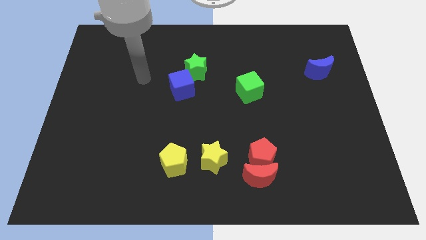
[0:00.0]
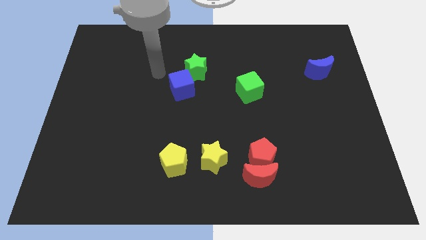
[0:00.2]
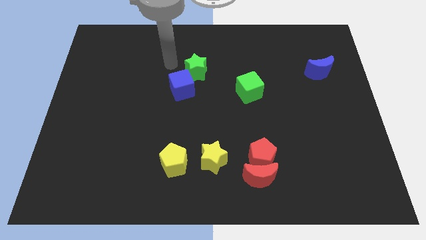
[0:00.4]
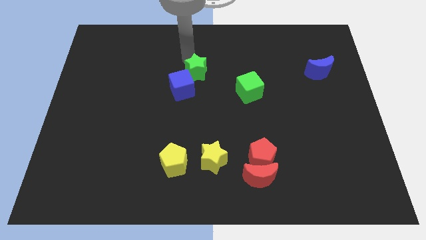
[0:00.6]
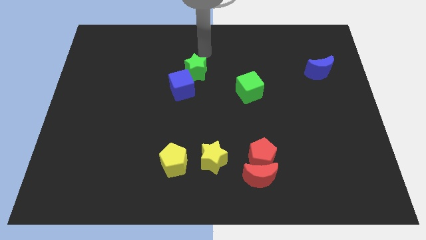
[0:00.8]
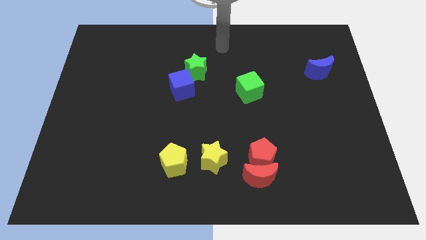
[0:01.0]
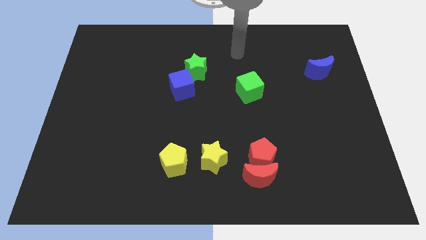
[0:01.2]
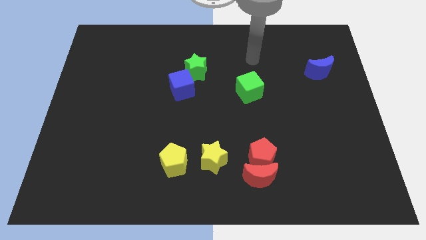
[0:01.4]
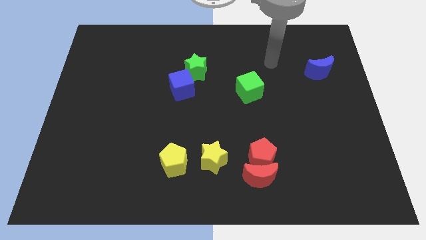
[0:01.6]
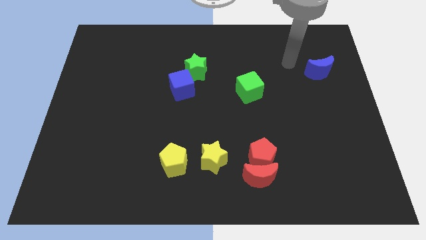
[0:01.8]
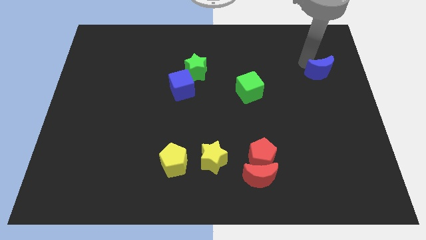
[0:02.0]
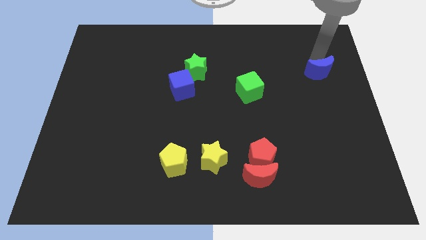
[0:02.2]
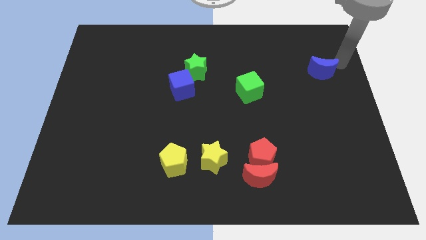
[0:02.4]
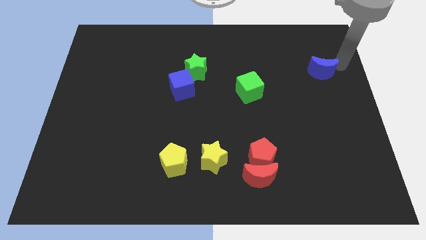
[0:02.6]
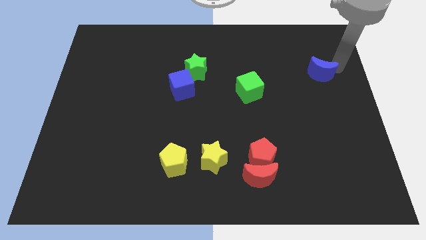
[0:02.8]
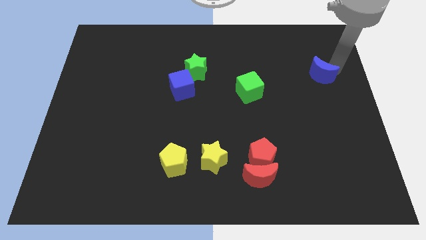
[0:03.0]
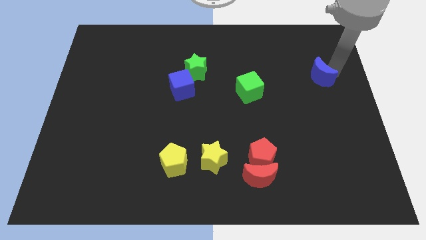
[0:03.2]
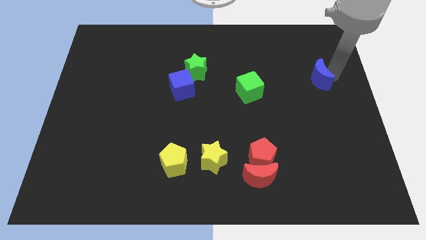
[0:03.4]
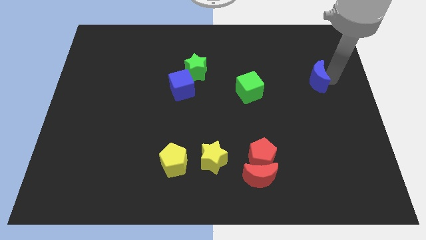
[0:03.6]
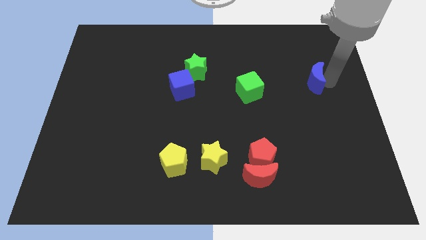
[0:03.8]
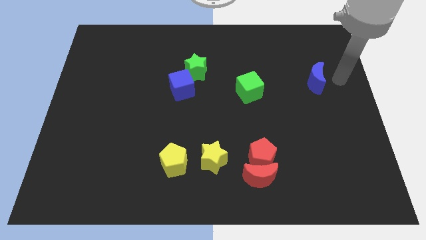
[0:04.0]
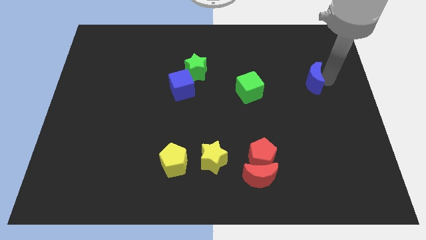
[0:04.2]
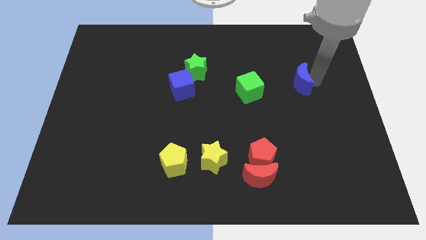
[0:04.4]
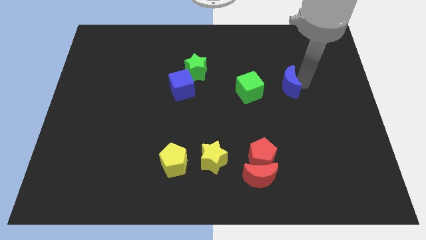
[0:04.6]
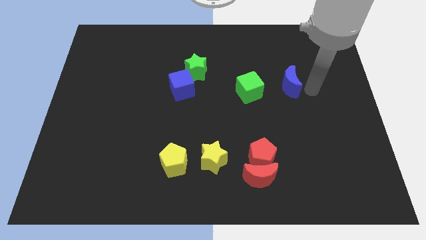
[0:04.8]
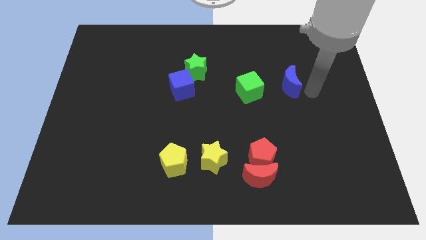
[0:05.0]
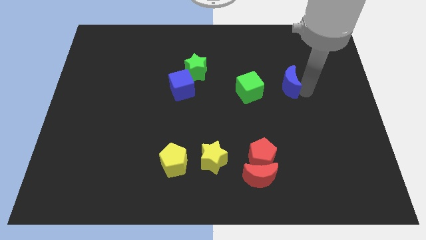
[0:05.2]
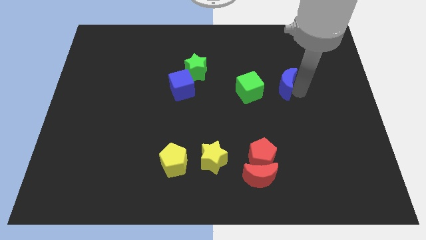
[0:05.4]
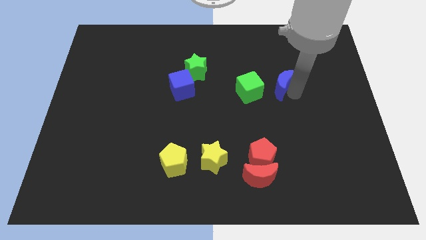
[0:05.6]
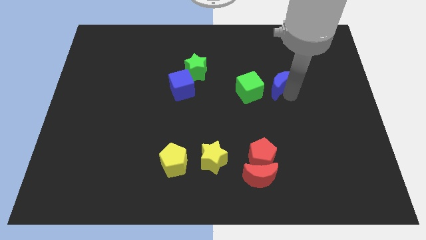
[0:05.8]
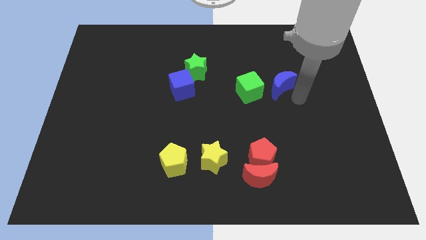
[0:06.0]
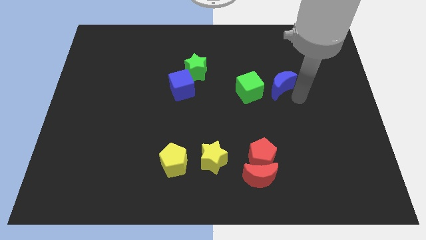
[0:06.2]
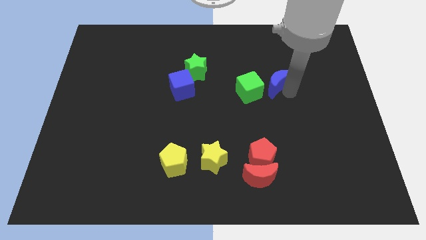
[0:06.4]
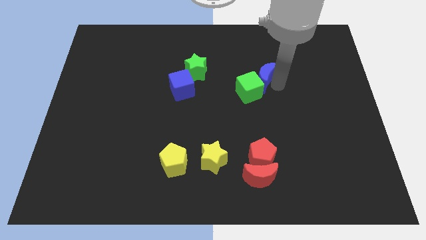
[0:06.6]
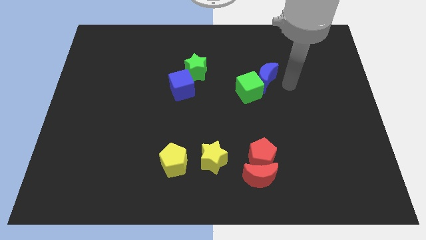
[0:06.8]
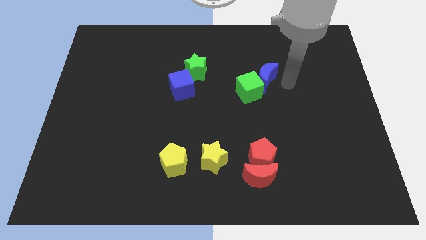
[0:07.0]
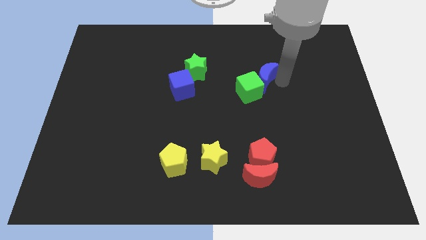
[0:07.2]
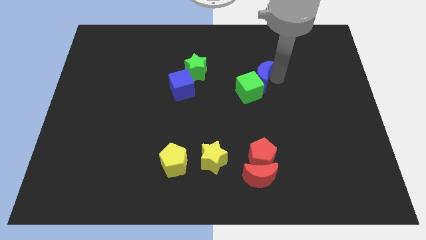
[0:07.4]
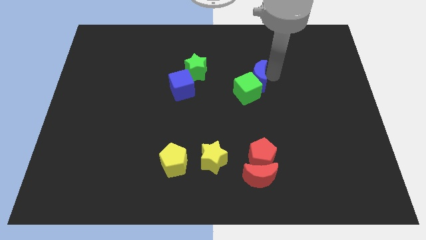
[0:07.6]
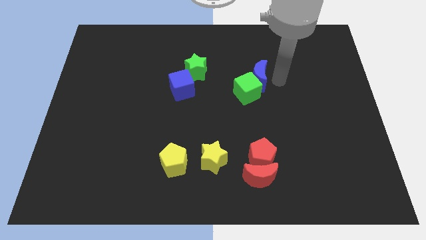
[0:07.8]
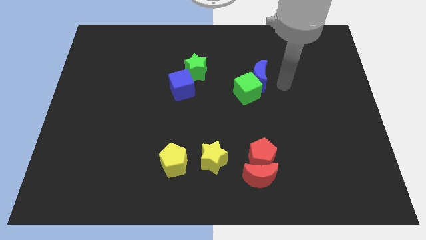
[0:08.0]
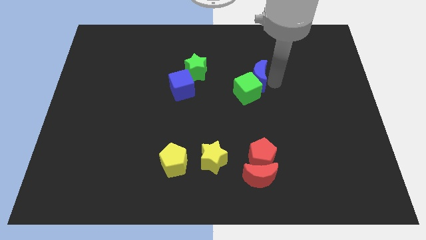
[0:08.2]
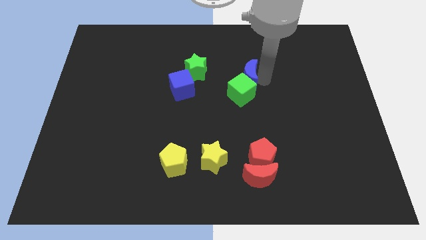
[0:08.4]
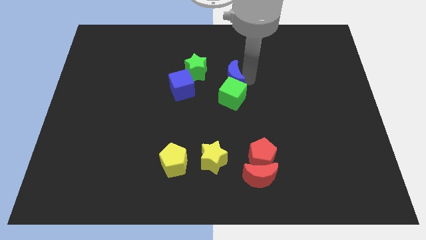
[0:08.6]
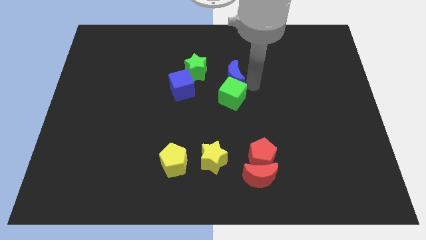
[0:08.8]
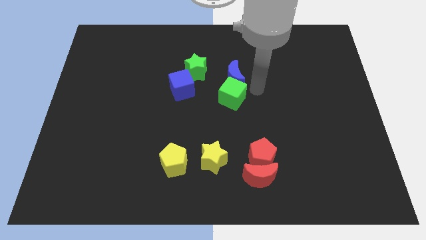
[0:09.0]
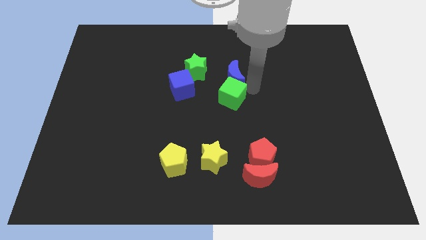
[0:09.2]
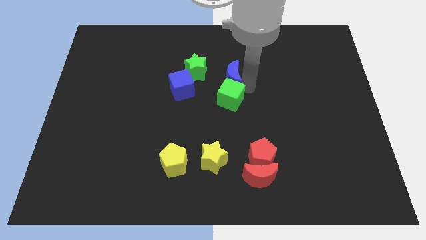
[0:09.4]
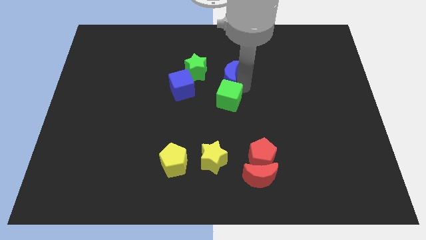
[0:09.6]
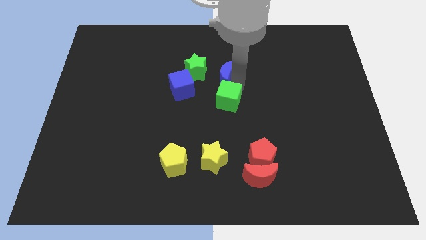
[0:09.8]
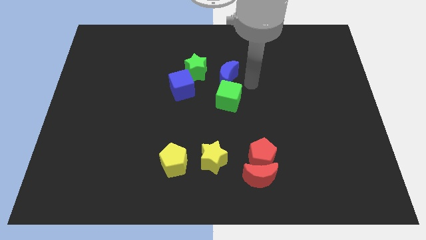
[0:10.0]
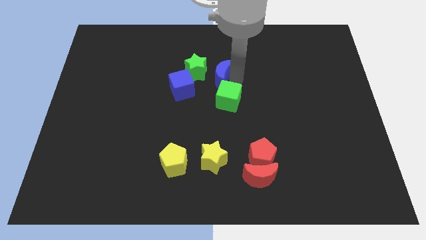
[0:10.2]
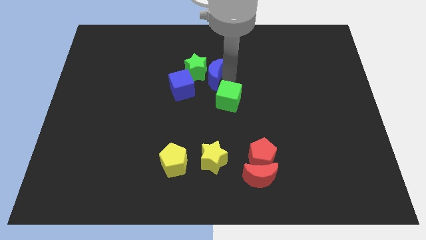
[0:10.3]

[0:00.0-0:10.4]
push the blue moon close to the green star

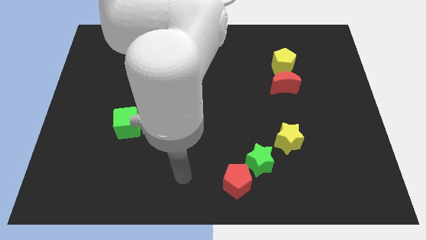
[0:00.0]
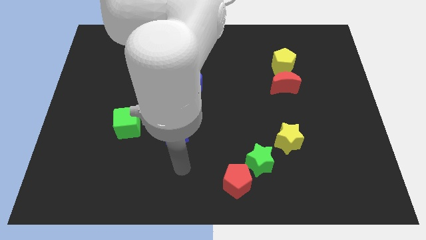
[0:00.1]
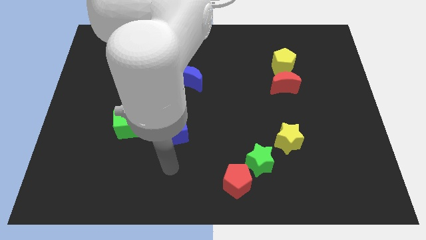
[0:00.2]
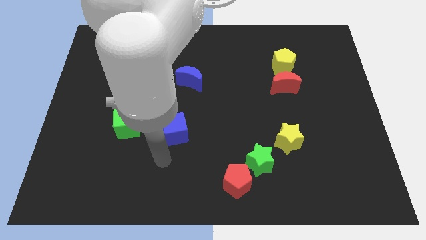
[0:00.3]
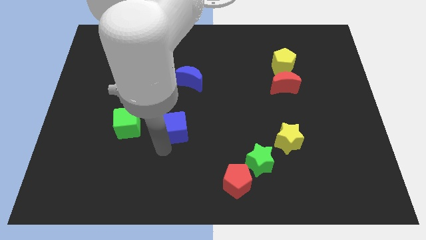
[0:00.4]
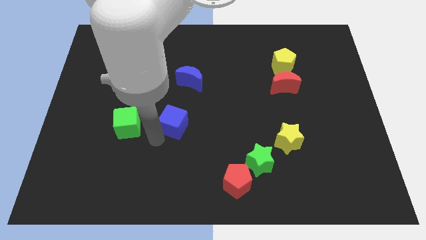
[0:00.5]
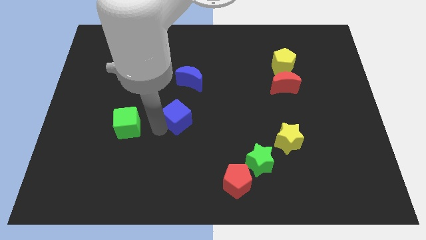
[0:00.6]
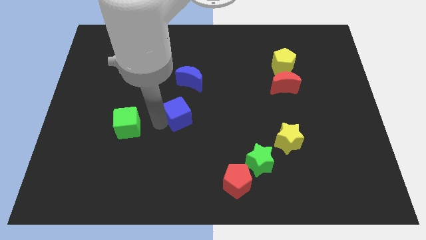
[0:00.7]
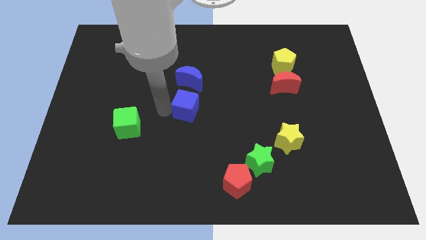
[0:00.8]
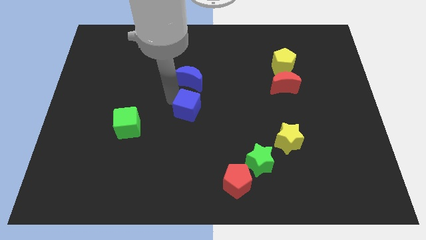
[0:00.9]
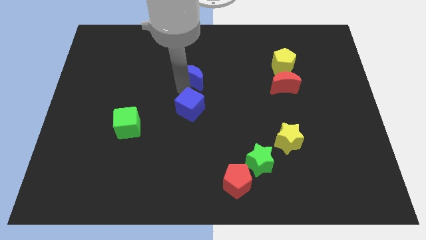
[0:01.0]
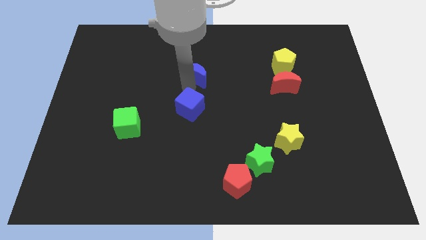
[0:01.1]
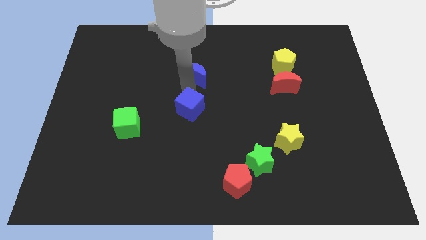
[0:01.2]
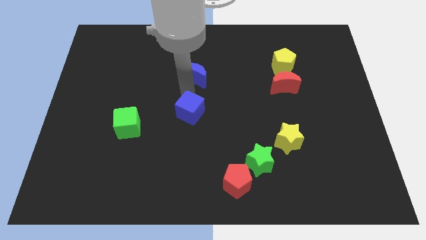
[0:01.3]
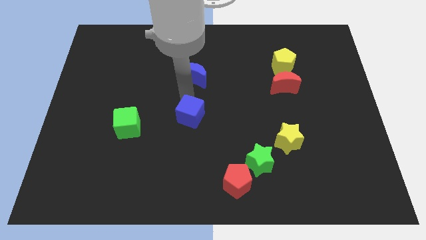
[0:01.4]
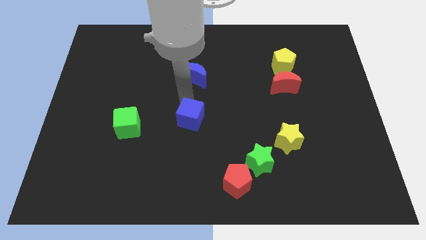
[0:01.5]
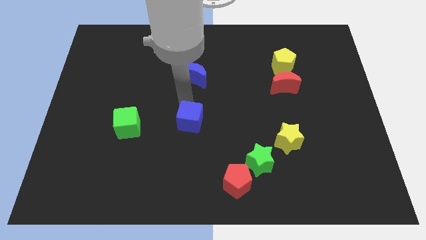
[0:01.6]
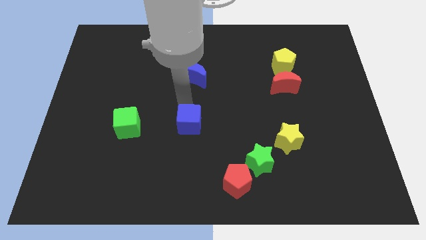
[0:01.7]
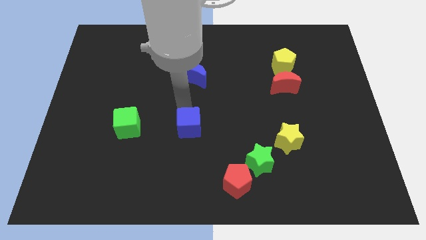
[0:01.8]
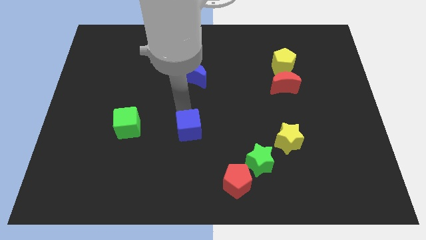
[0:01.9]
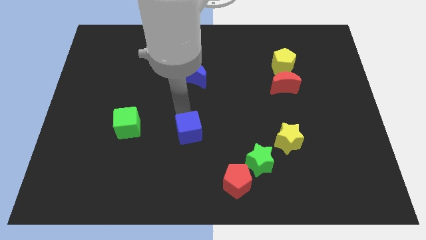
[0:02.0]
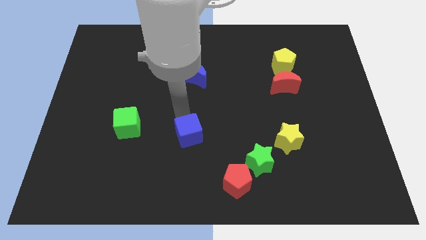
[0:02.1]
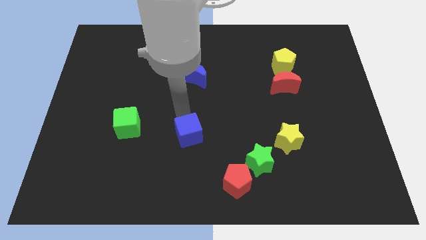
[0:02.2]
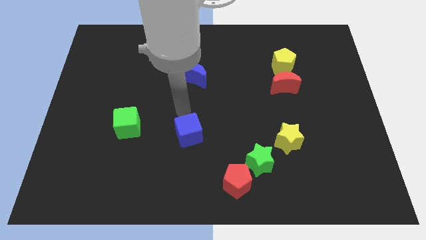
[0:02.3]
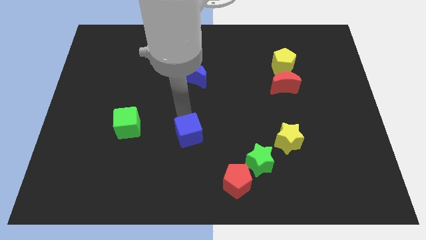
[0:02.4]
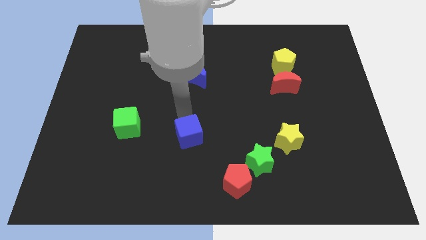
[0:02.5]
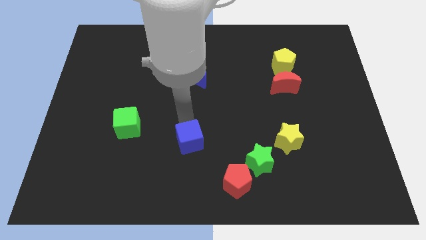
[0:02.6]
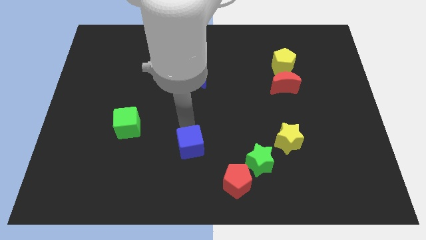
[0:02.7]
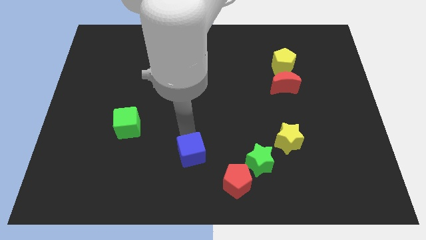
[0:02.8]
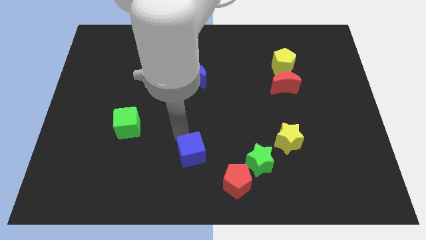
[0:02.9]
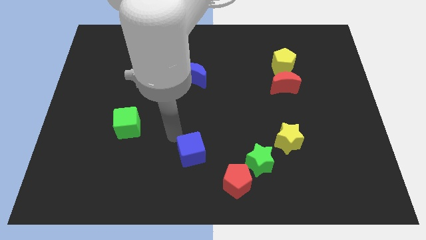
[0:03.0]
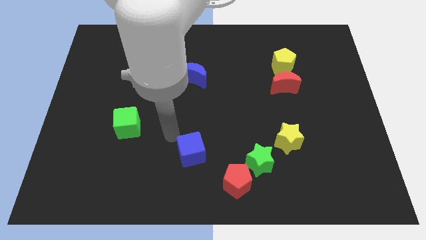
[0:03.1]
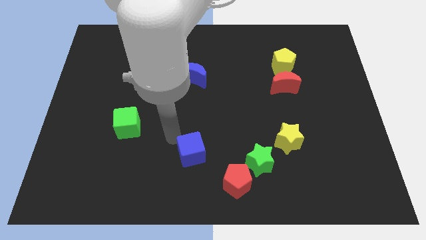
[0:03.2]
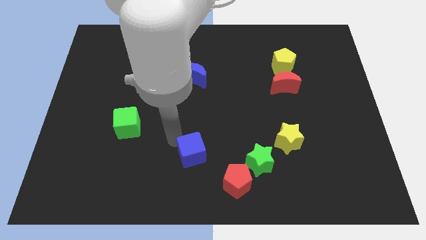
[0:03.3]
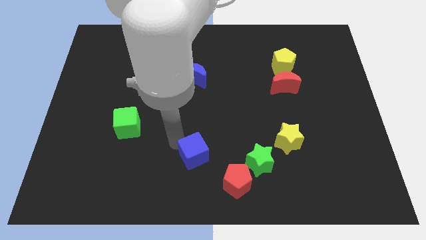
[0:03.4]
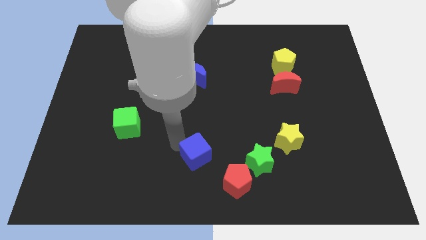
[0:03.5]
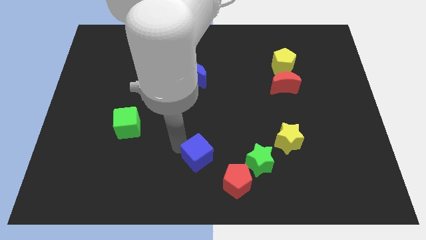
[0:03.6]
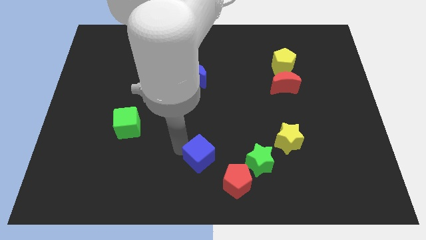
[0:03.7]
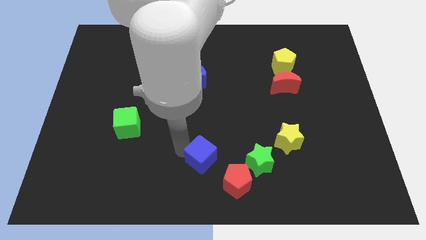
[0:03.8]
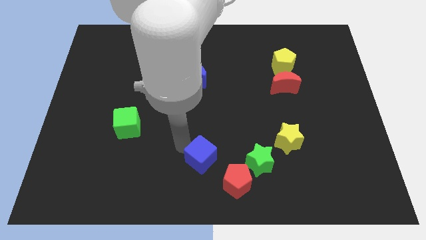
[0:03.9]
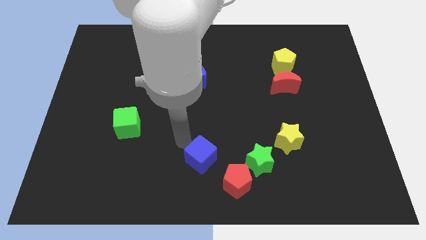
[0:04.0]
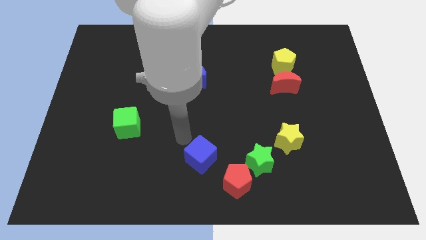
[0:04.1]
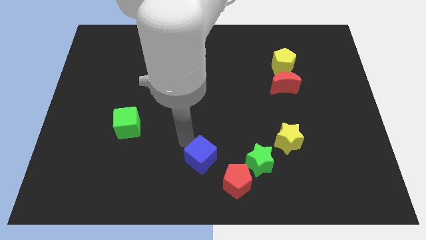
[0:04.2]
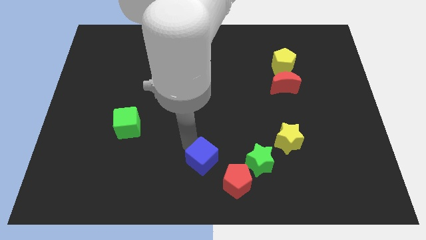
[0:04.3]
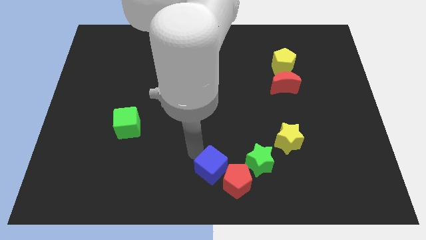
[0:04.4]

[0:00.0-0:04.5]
slide the blue cube to the red pentagon
